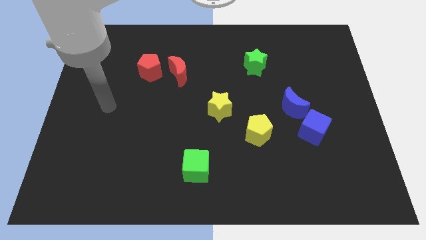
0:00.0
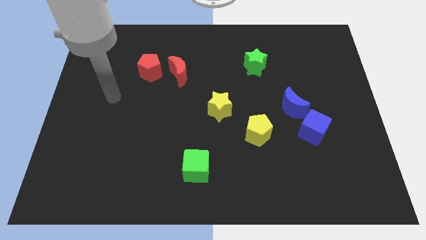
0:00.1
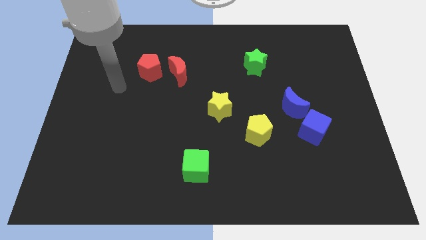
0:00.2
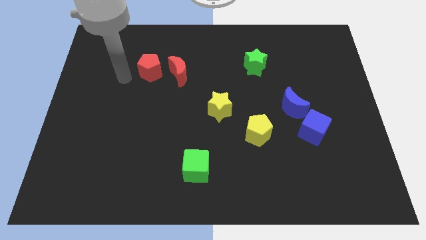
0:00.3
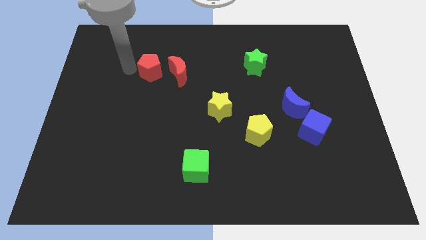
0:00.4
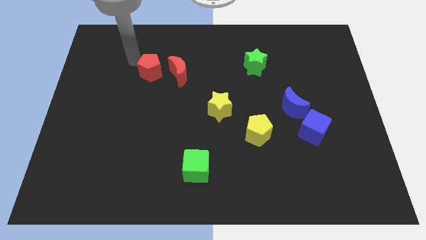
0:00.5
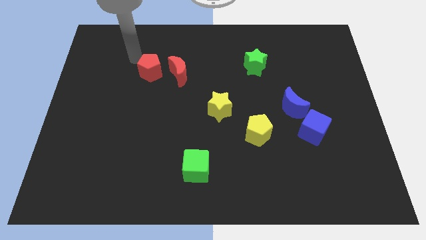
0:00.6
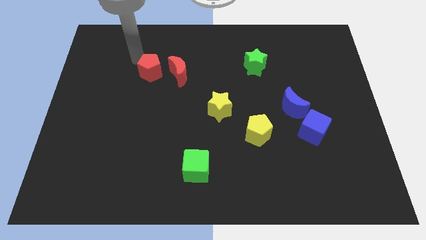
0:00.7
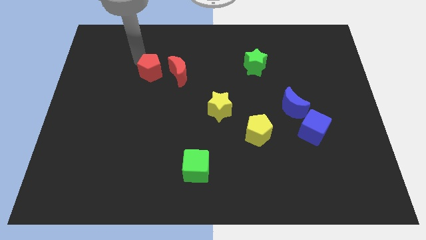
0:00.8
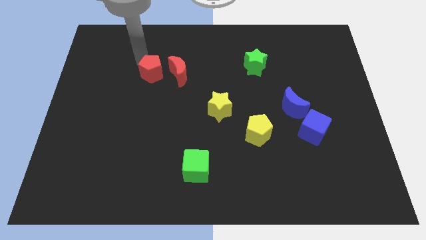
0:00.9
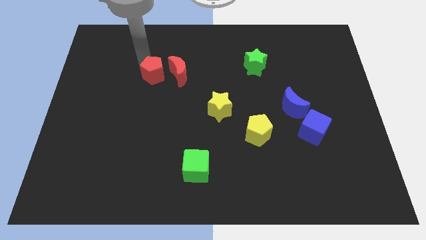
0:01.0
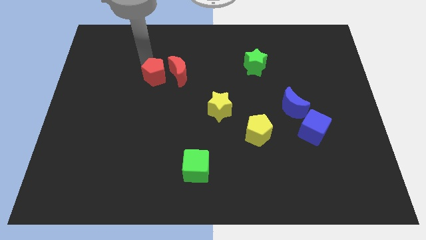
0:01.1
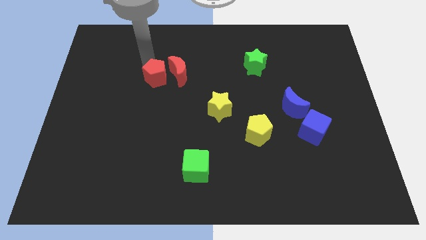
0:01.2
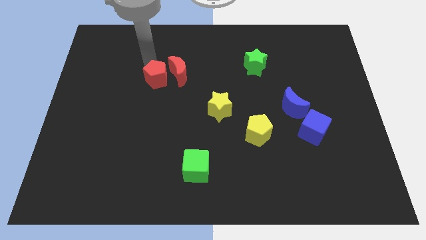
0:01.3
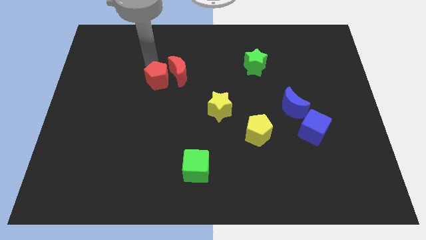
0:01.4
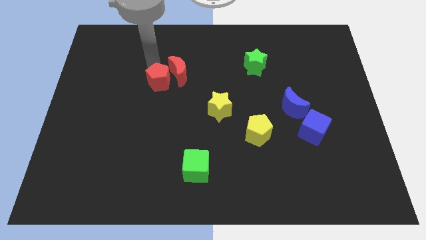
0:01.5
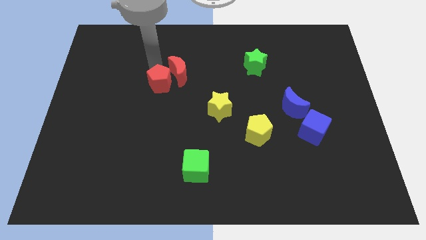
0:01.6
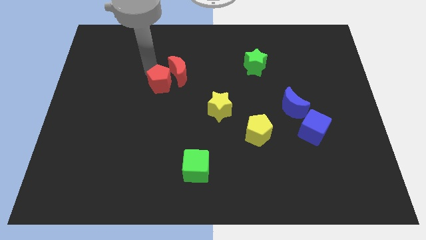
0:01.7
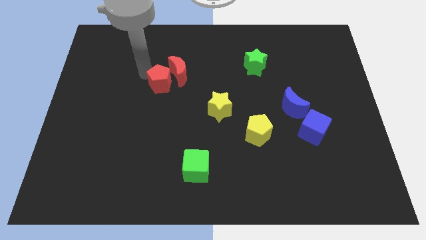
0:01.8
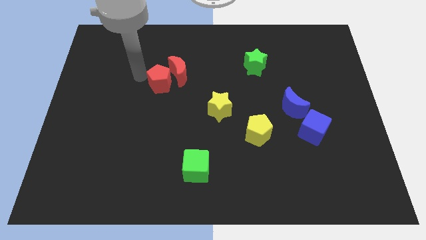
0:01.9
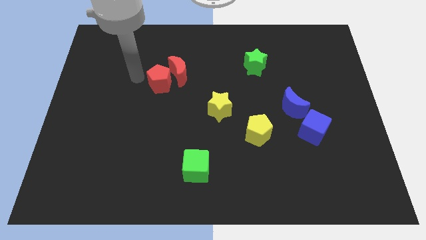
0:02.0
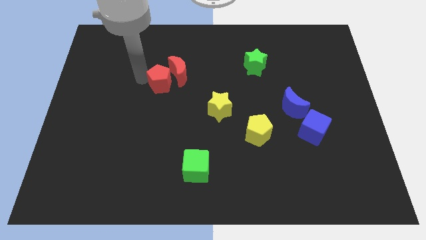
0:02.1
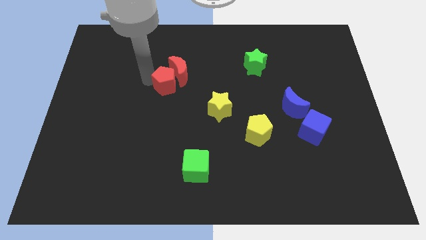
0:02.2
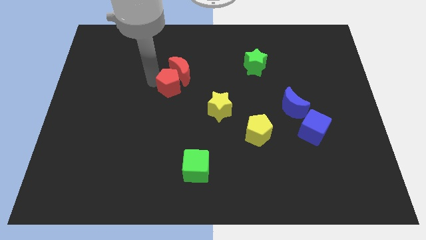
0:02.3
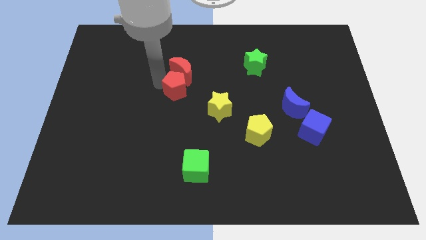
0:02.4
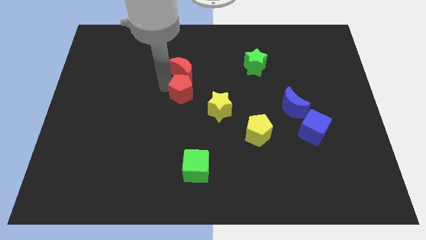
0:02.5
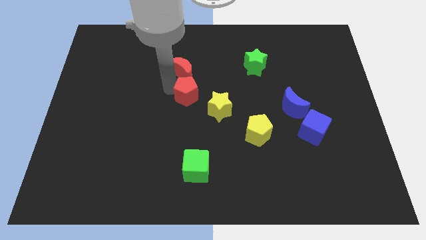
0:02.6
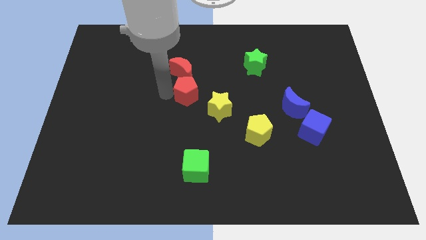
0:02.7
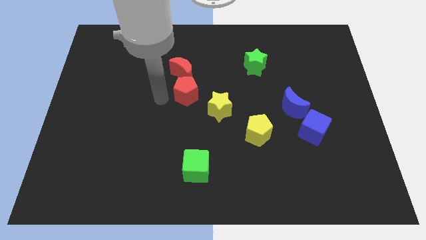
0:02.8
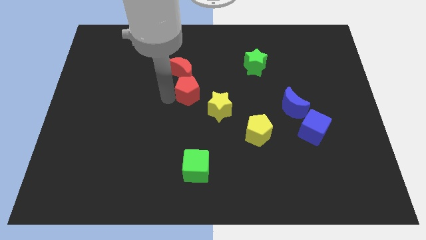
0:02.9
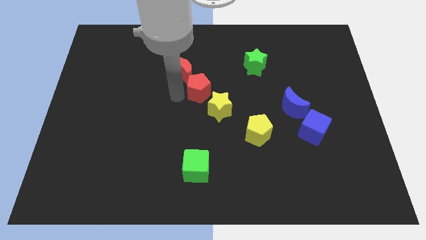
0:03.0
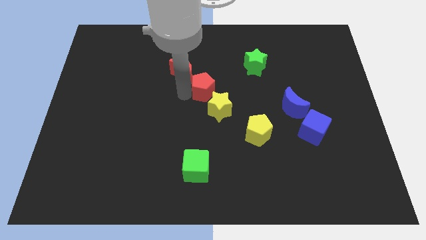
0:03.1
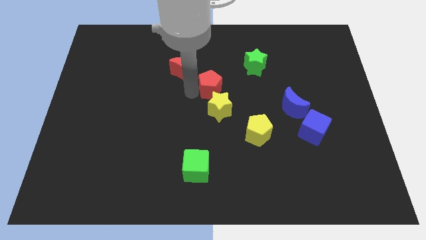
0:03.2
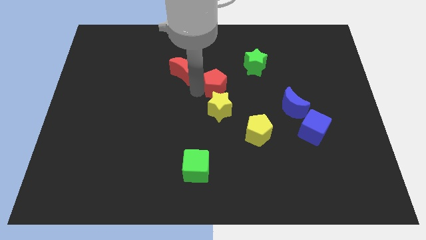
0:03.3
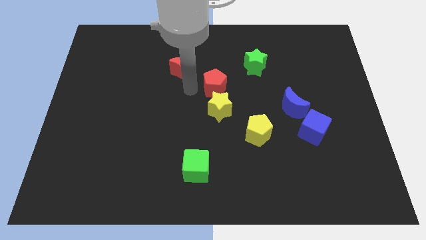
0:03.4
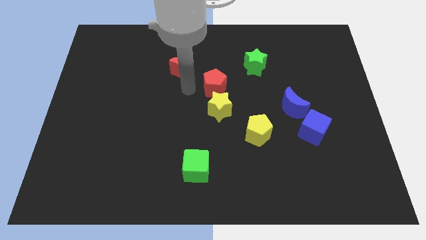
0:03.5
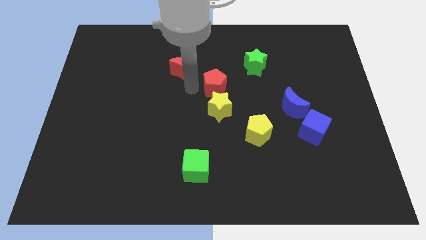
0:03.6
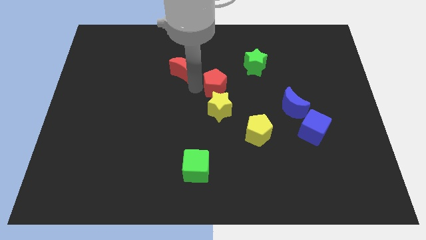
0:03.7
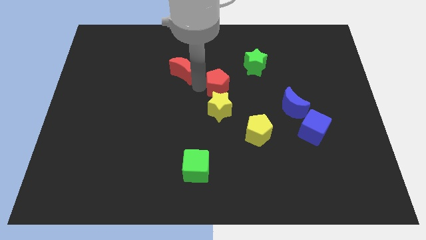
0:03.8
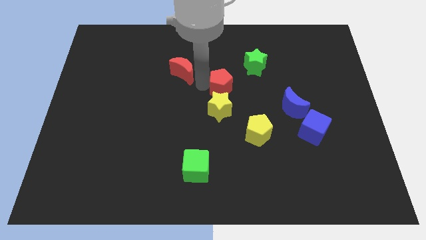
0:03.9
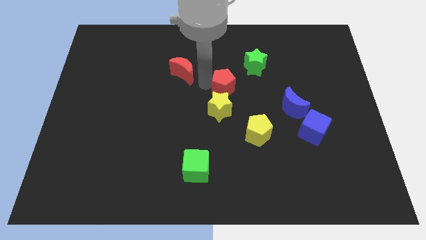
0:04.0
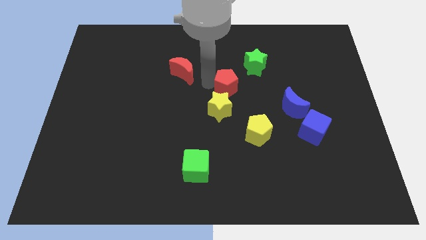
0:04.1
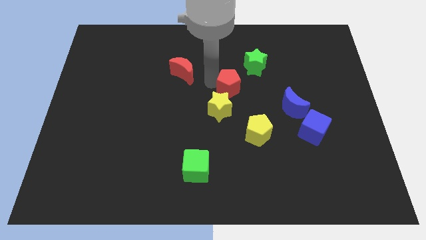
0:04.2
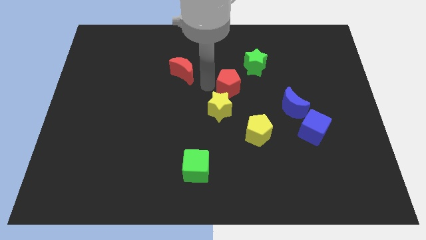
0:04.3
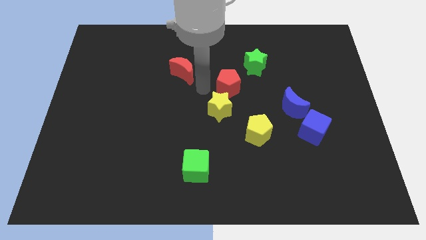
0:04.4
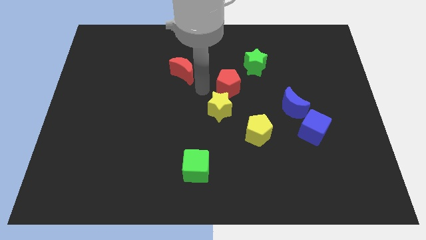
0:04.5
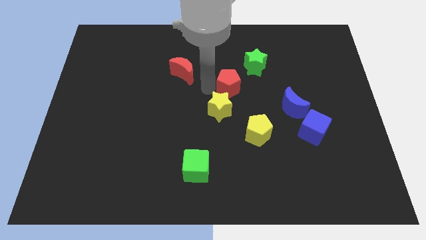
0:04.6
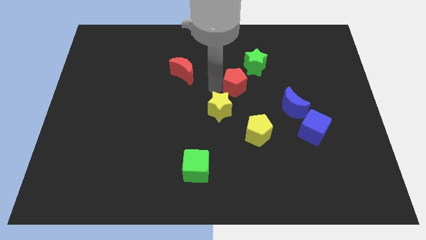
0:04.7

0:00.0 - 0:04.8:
slide the red pentagon to the right

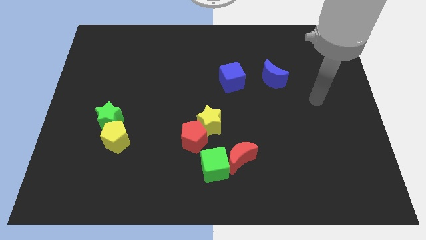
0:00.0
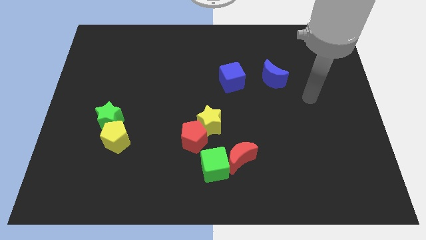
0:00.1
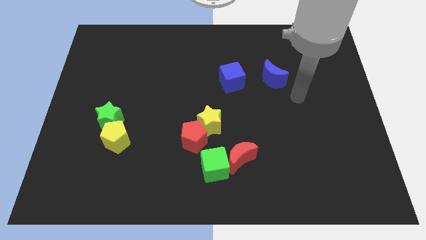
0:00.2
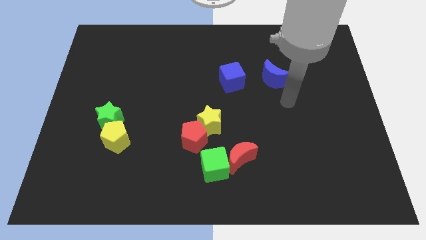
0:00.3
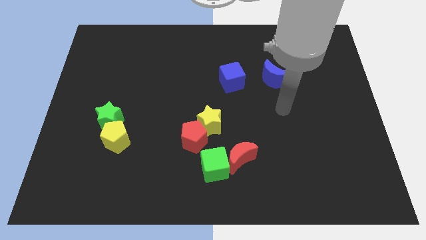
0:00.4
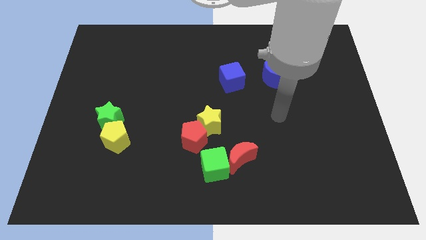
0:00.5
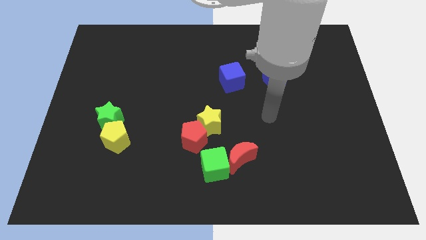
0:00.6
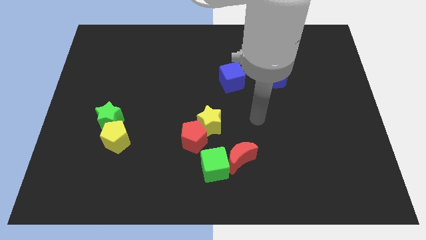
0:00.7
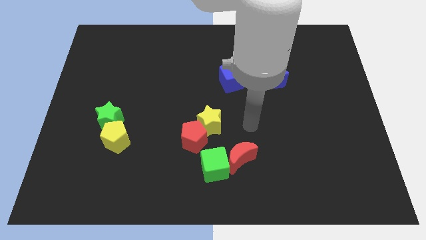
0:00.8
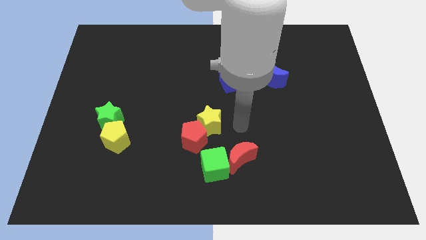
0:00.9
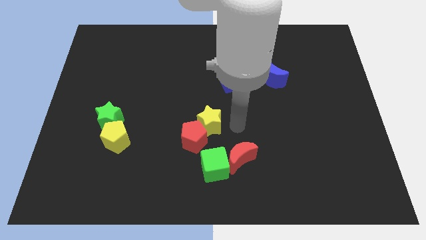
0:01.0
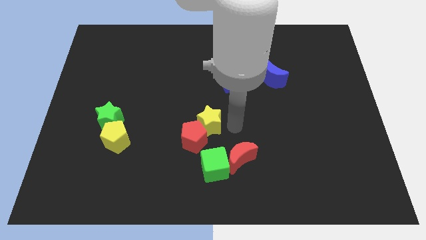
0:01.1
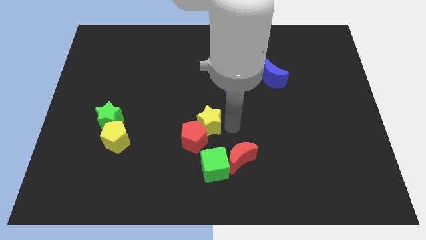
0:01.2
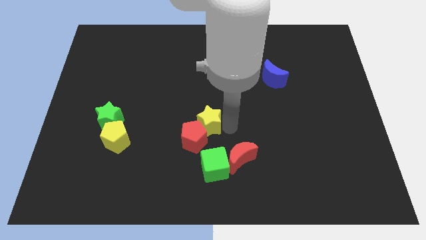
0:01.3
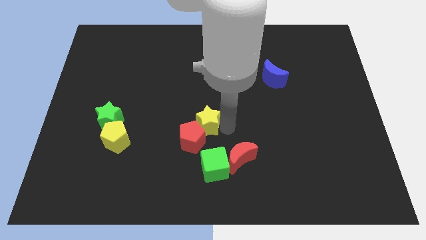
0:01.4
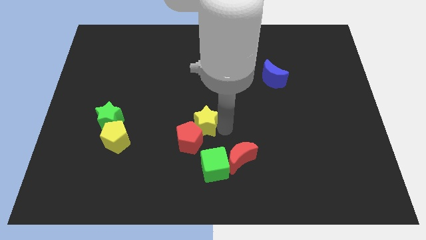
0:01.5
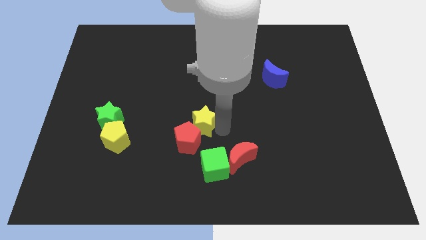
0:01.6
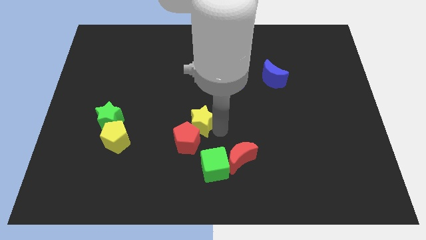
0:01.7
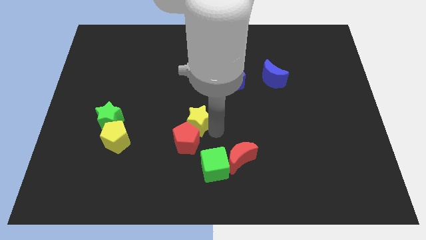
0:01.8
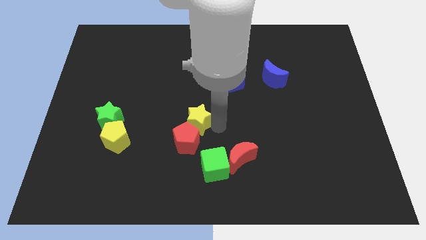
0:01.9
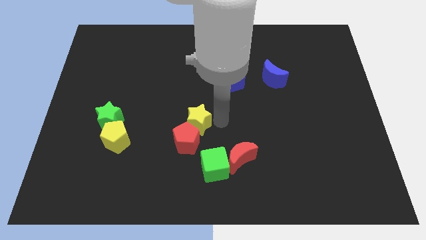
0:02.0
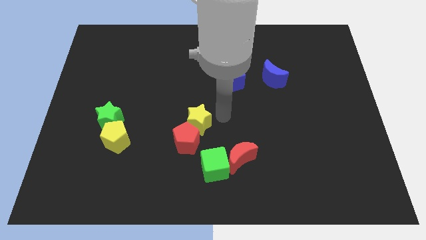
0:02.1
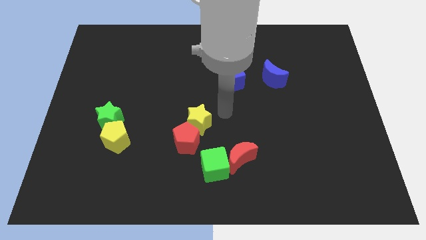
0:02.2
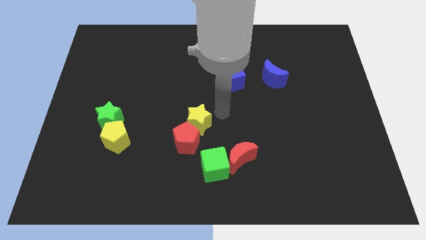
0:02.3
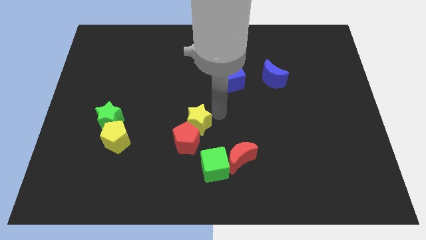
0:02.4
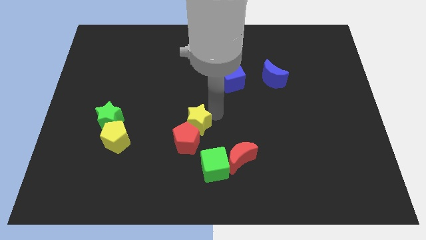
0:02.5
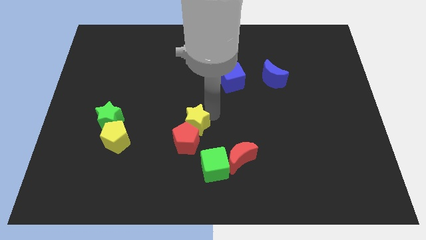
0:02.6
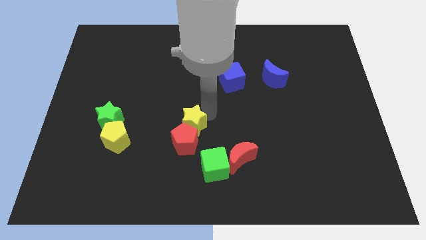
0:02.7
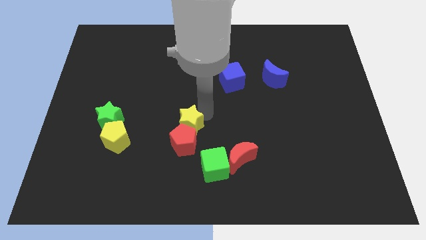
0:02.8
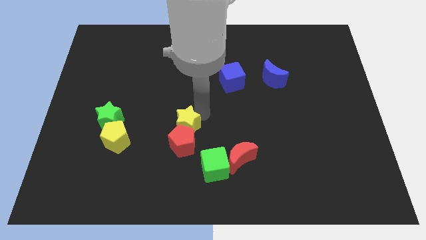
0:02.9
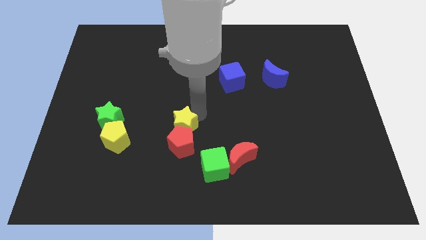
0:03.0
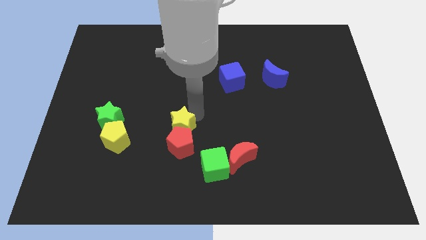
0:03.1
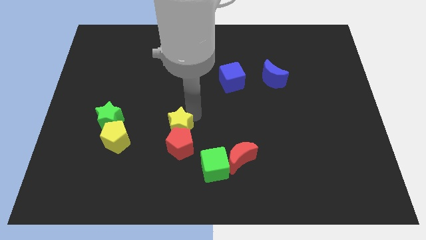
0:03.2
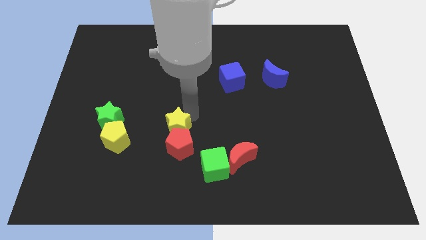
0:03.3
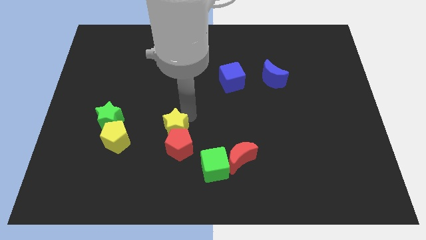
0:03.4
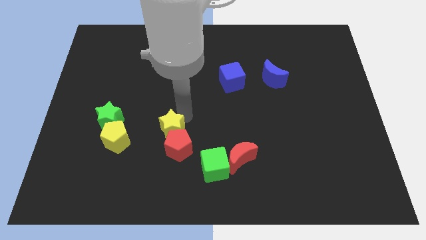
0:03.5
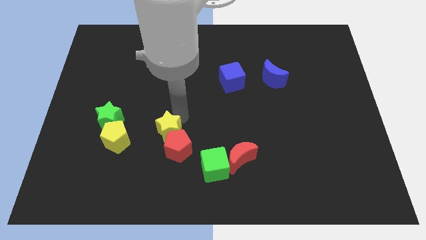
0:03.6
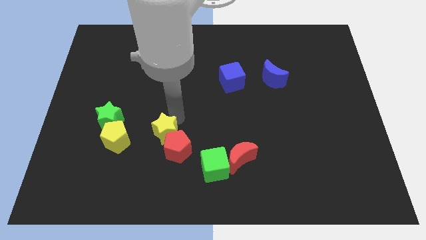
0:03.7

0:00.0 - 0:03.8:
slide the yellow star a bit down and left diagonally
